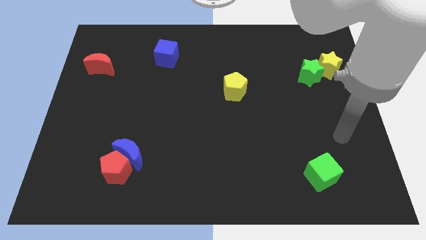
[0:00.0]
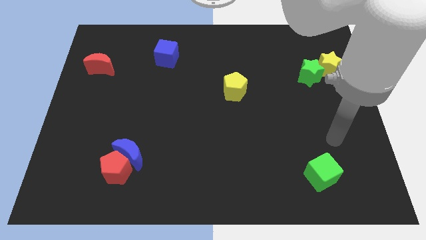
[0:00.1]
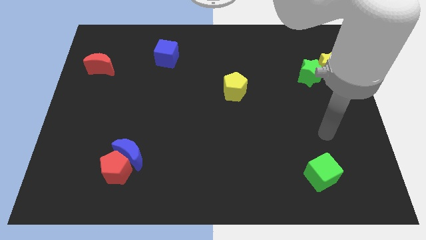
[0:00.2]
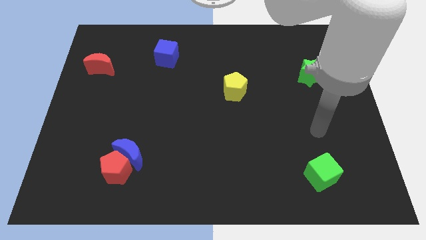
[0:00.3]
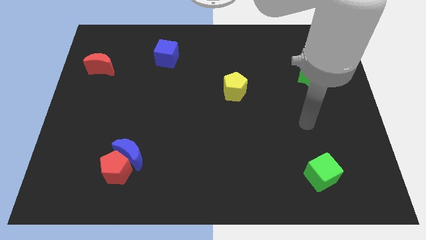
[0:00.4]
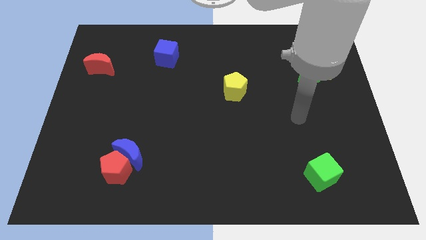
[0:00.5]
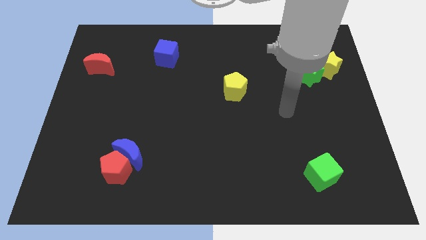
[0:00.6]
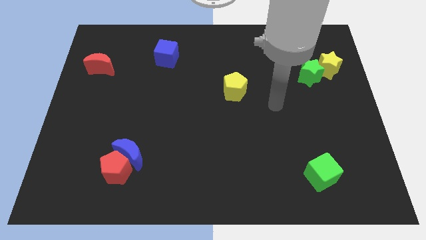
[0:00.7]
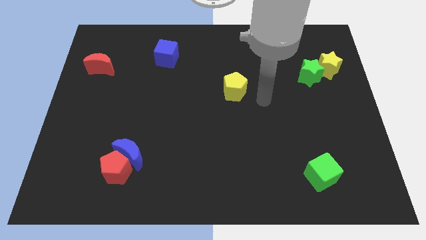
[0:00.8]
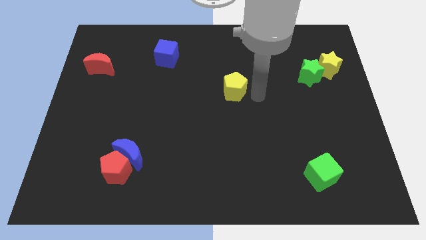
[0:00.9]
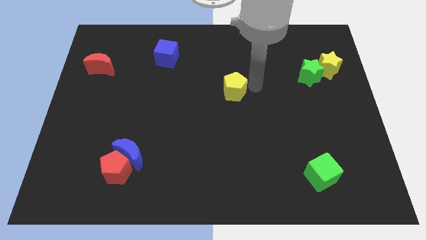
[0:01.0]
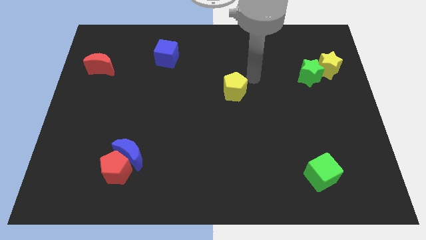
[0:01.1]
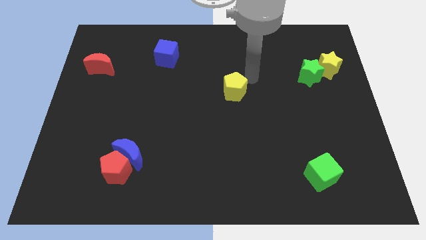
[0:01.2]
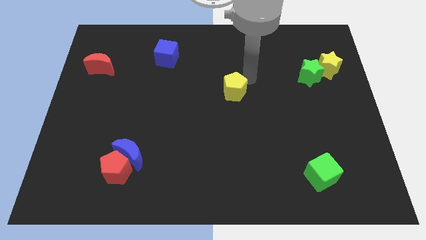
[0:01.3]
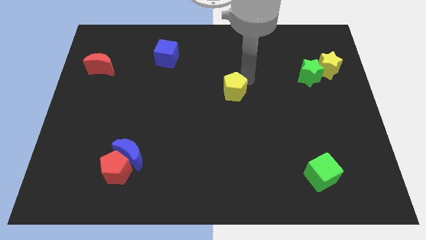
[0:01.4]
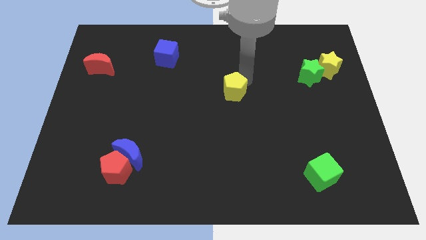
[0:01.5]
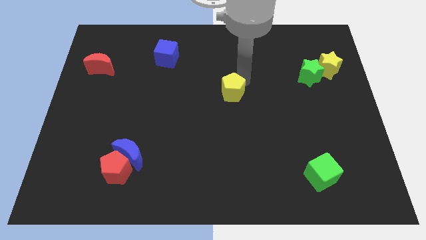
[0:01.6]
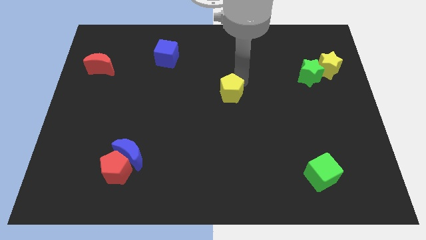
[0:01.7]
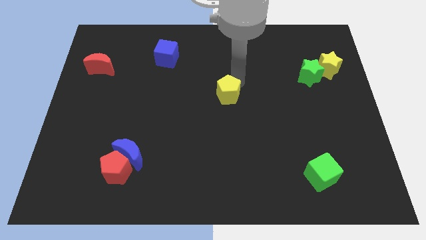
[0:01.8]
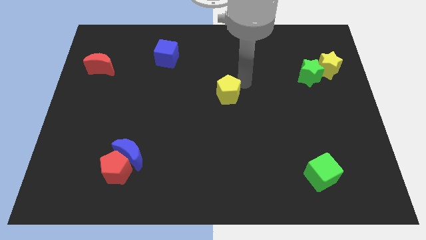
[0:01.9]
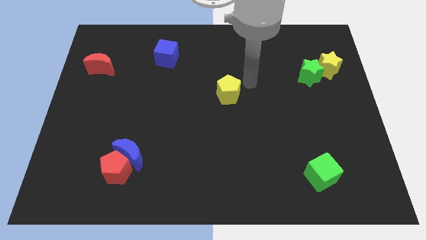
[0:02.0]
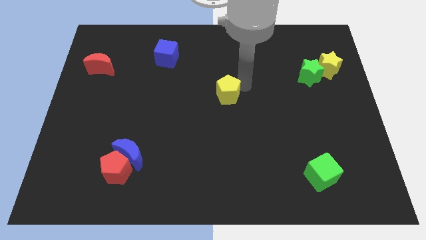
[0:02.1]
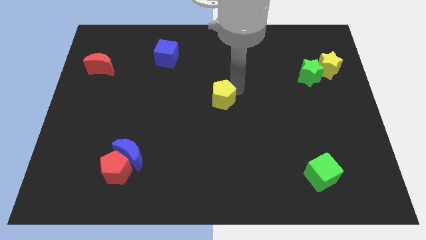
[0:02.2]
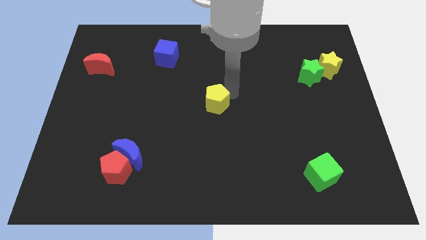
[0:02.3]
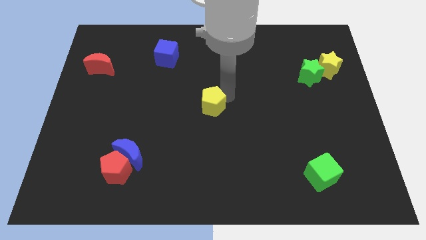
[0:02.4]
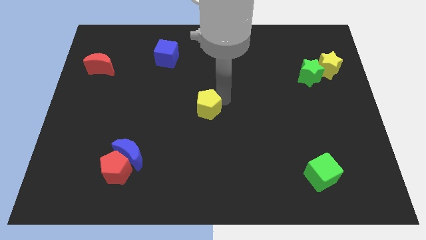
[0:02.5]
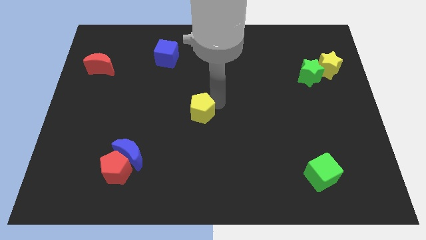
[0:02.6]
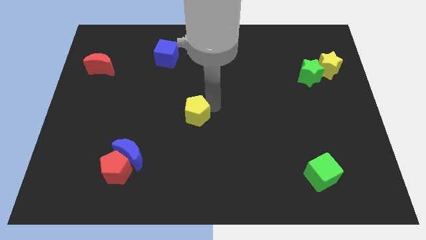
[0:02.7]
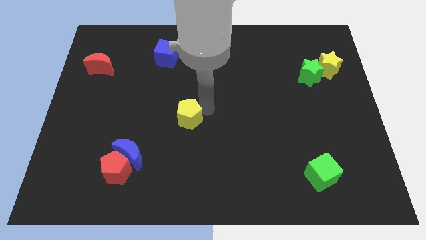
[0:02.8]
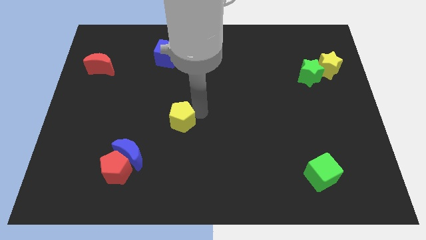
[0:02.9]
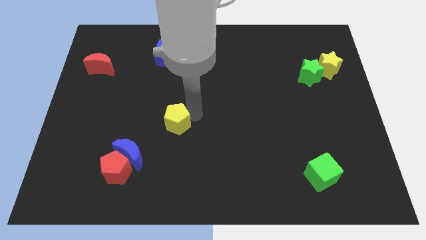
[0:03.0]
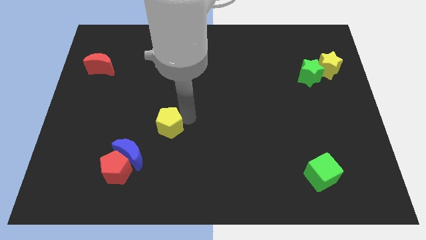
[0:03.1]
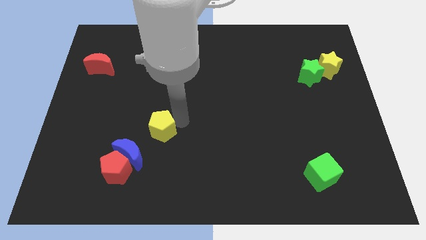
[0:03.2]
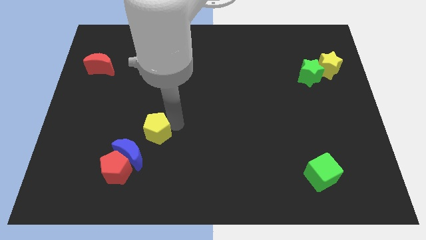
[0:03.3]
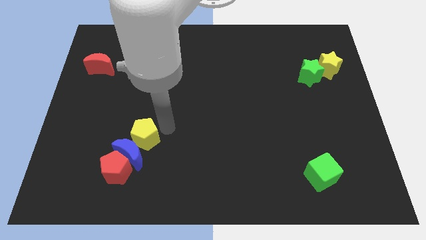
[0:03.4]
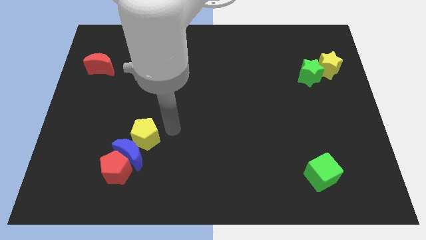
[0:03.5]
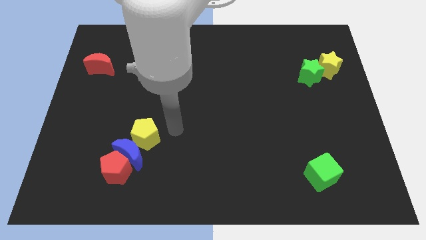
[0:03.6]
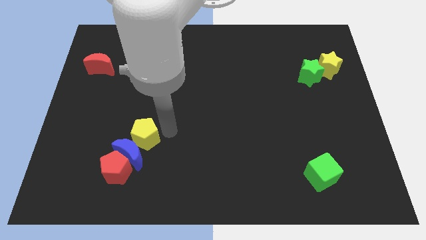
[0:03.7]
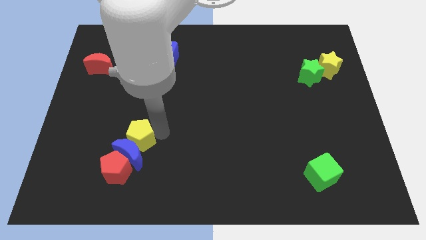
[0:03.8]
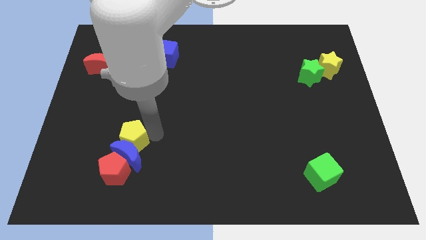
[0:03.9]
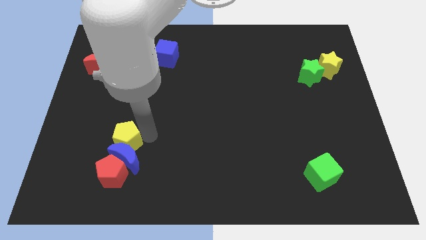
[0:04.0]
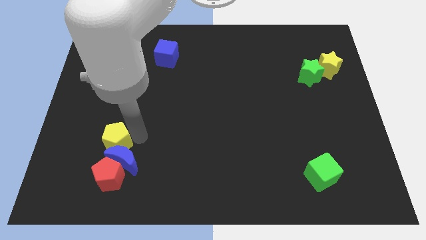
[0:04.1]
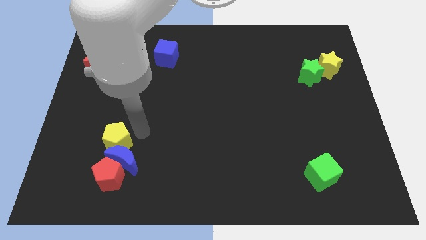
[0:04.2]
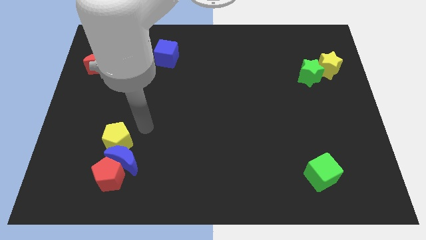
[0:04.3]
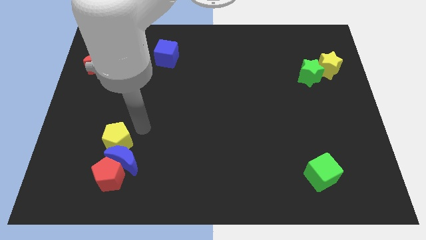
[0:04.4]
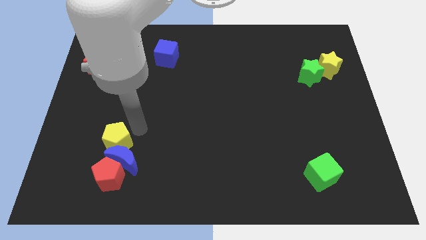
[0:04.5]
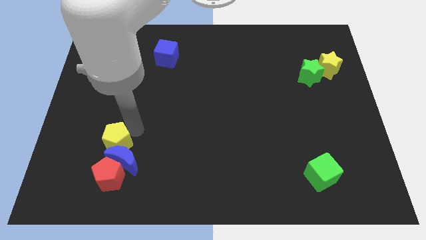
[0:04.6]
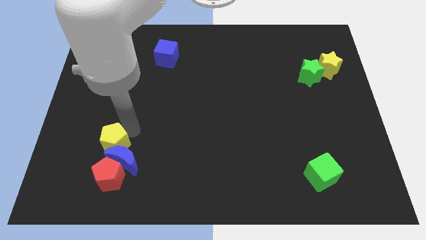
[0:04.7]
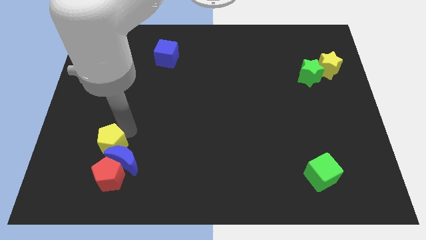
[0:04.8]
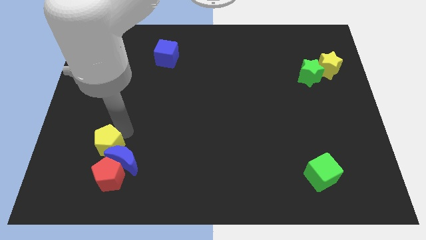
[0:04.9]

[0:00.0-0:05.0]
put the yellow pentagon to the top left side of the red pentagon

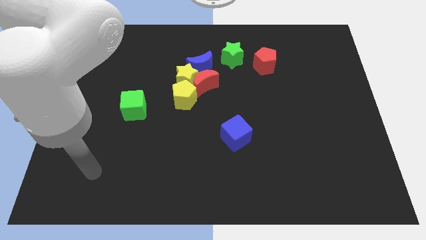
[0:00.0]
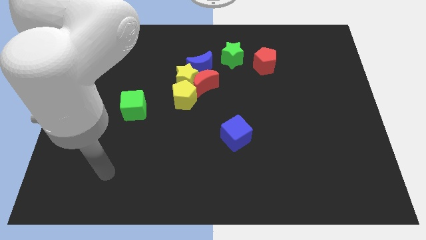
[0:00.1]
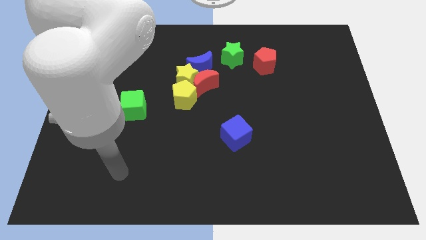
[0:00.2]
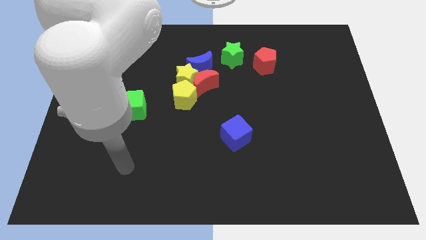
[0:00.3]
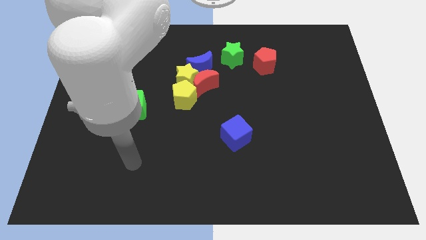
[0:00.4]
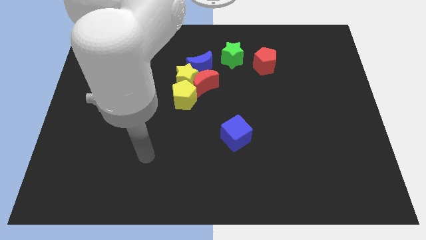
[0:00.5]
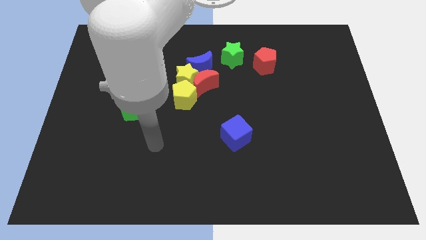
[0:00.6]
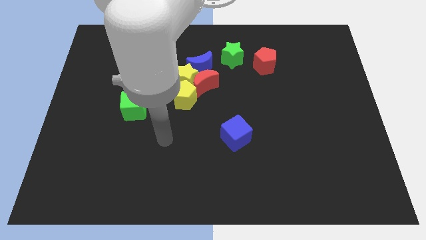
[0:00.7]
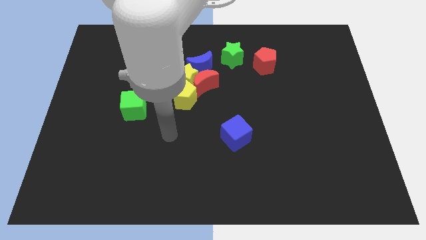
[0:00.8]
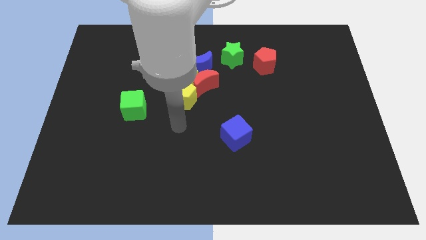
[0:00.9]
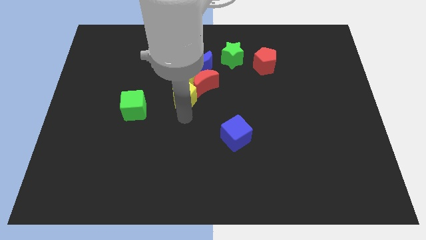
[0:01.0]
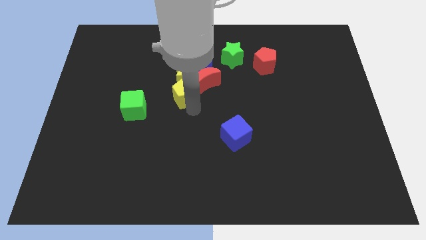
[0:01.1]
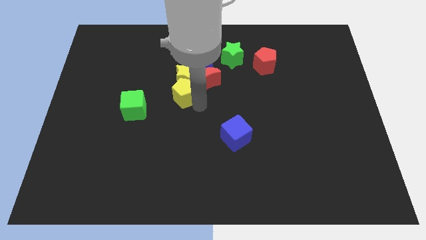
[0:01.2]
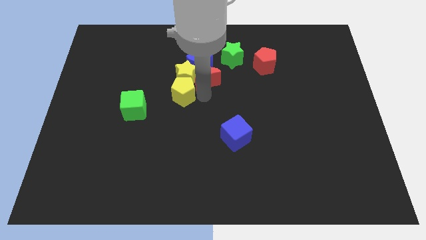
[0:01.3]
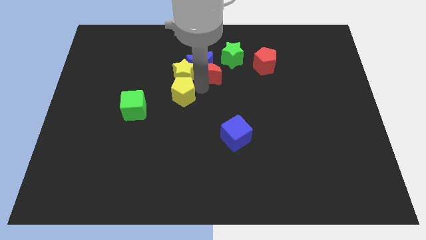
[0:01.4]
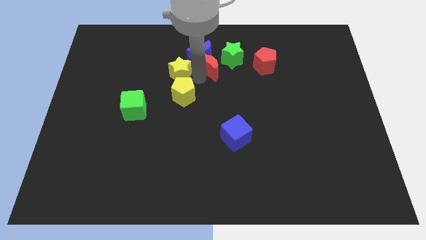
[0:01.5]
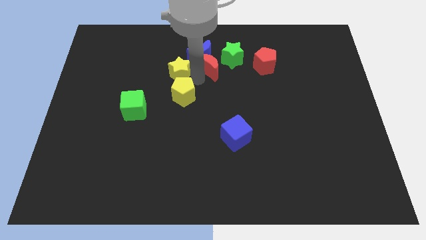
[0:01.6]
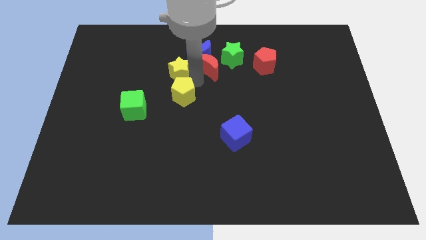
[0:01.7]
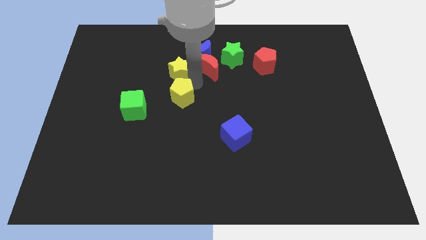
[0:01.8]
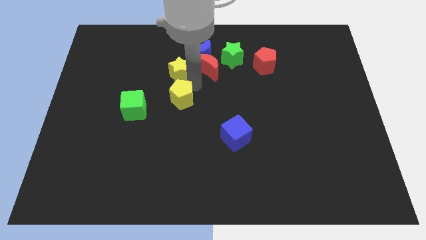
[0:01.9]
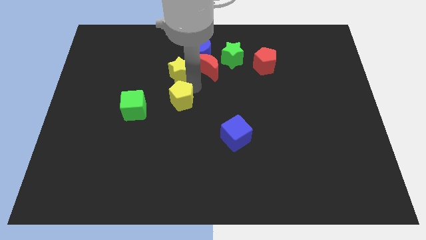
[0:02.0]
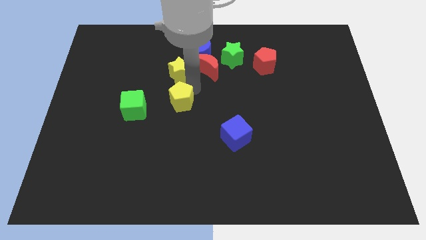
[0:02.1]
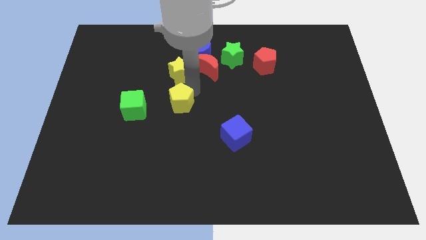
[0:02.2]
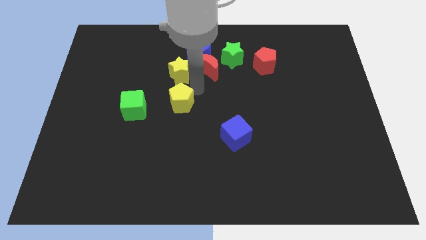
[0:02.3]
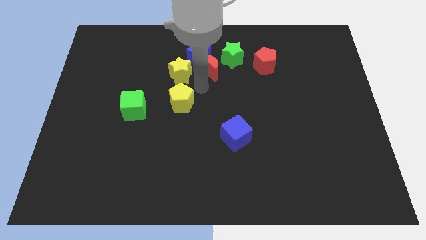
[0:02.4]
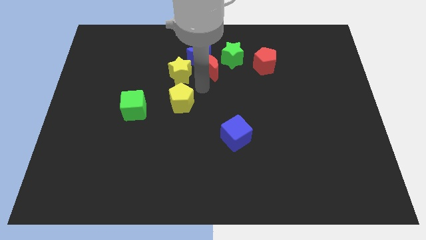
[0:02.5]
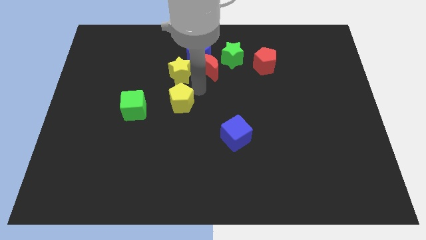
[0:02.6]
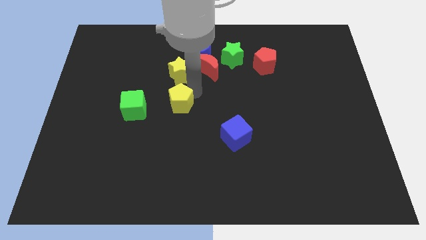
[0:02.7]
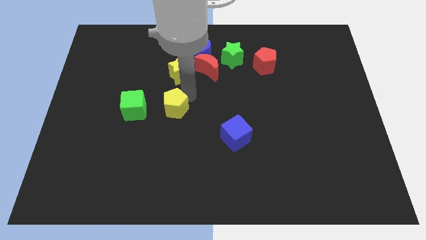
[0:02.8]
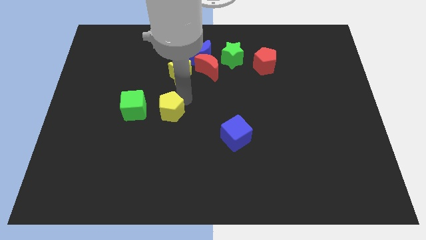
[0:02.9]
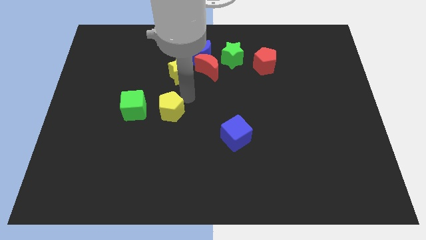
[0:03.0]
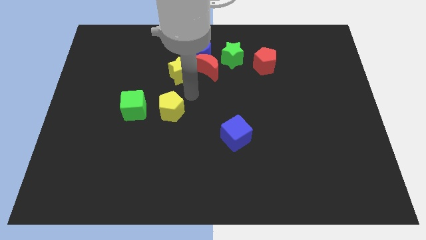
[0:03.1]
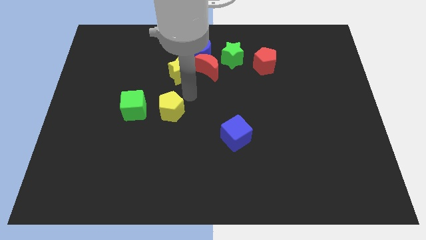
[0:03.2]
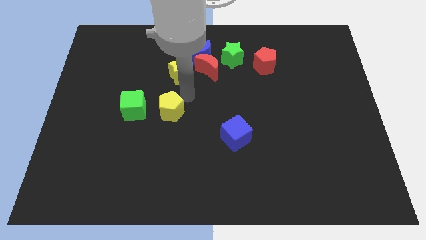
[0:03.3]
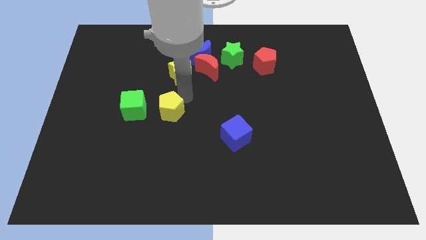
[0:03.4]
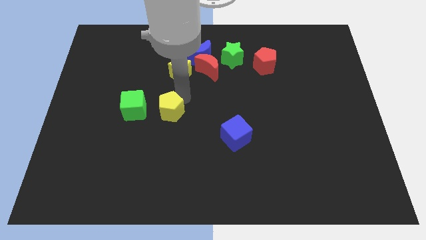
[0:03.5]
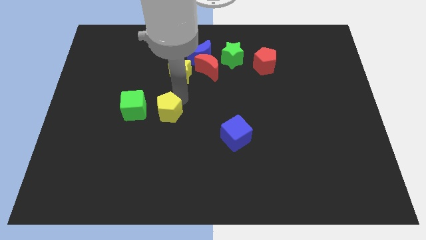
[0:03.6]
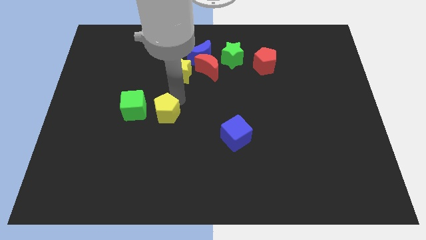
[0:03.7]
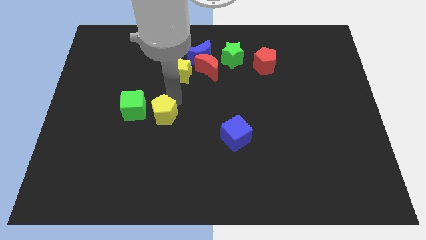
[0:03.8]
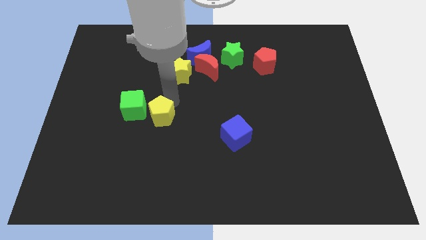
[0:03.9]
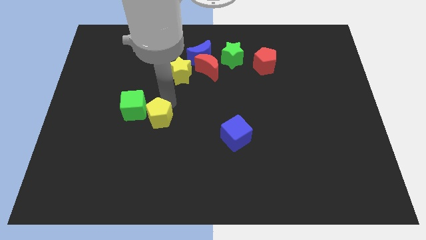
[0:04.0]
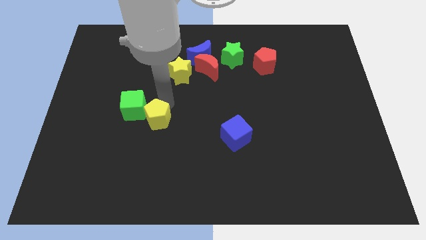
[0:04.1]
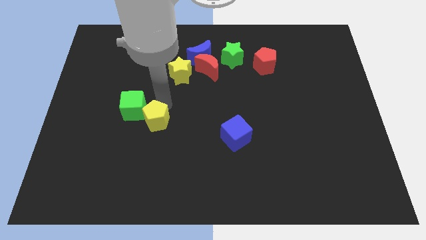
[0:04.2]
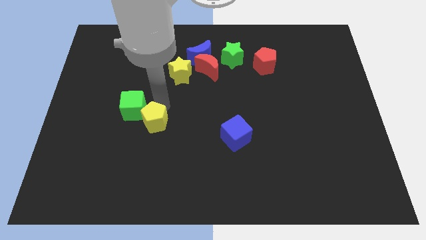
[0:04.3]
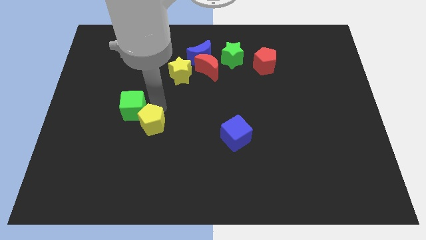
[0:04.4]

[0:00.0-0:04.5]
push the yellow pentagon below the green cube
